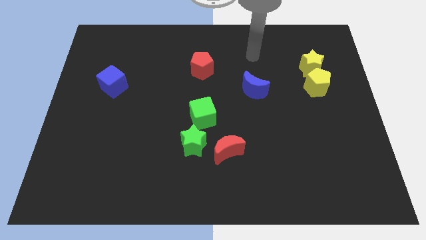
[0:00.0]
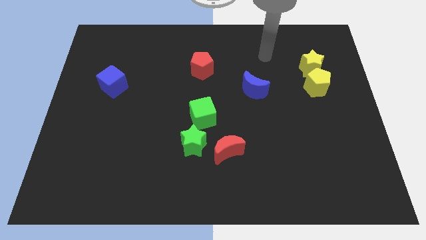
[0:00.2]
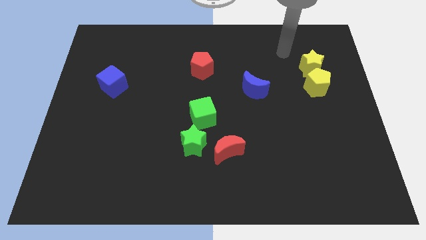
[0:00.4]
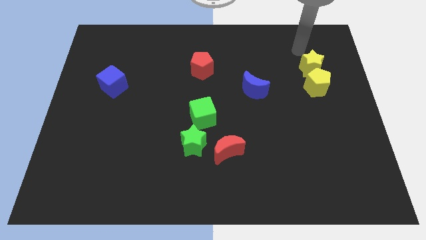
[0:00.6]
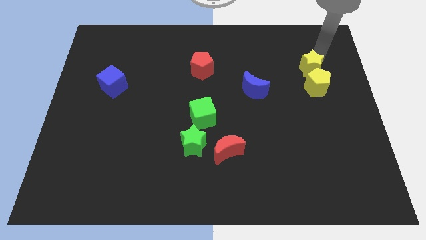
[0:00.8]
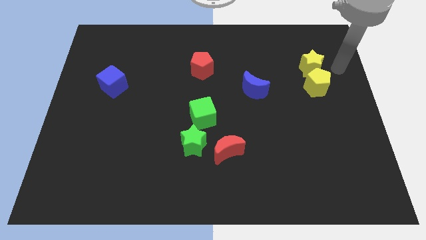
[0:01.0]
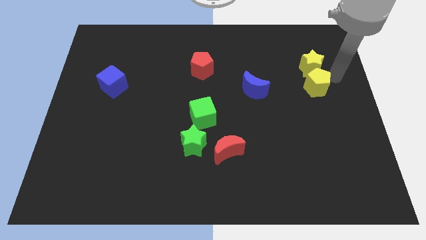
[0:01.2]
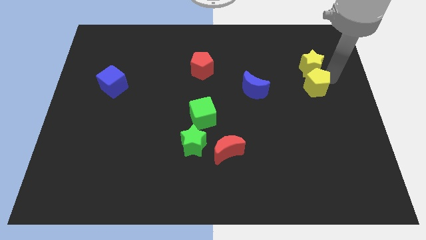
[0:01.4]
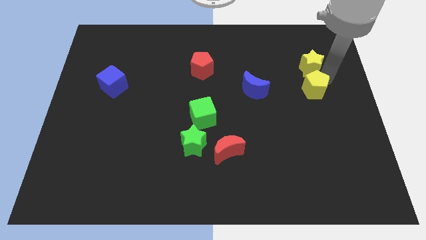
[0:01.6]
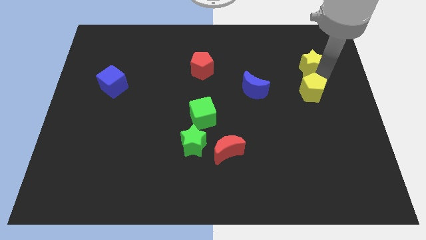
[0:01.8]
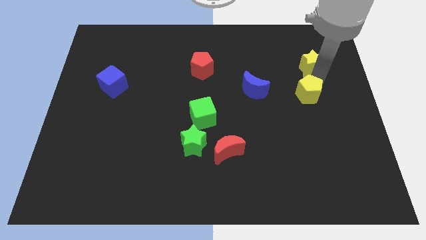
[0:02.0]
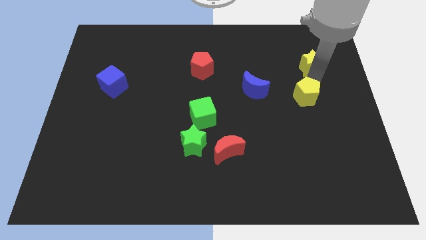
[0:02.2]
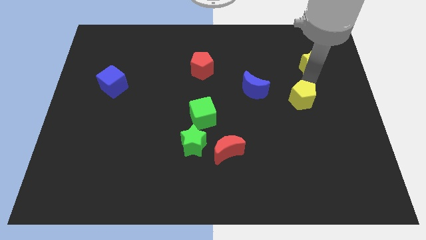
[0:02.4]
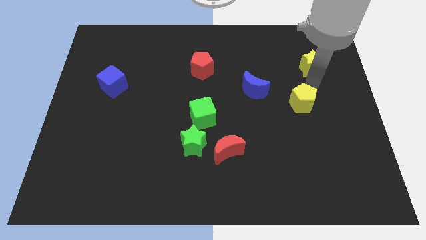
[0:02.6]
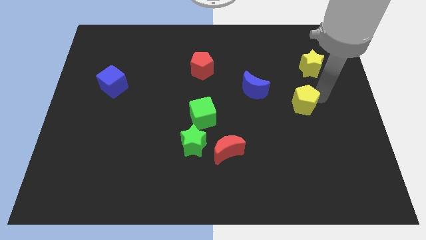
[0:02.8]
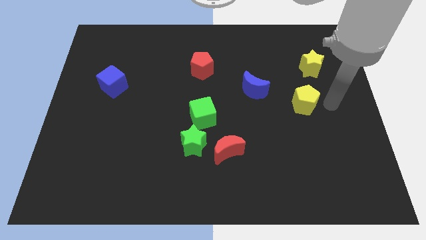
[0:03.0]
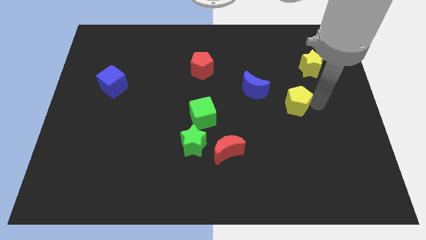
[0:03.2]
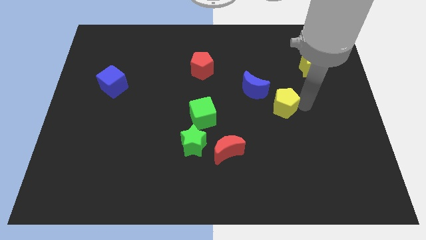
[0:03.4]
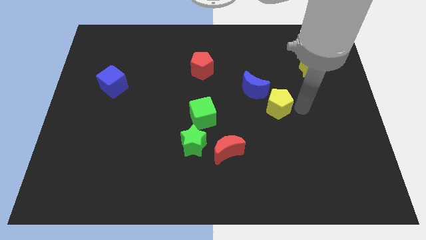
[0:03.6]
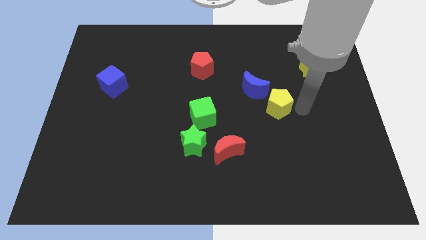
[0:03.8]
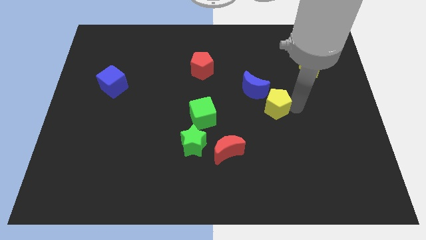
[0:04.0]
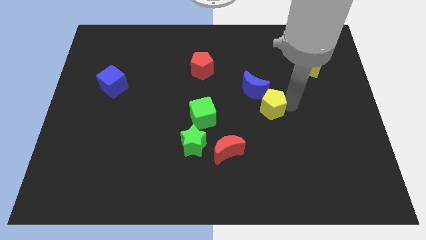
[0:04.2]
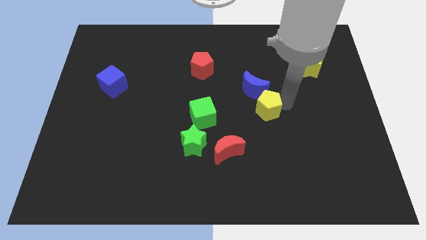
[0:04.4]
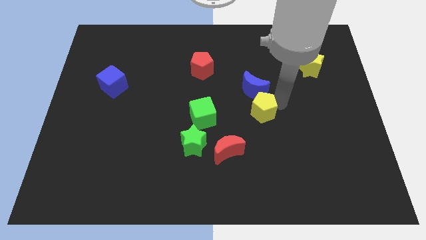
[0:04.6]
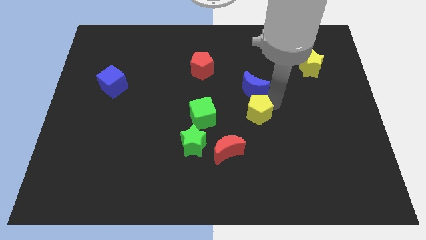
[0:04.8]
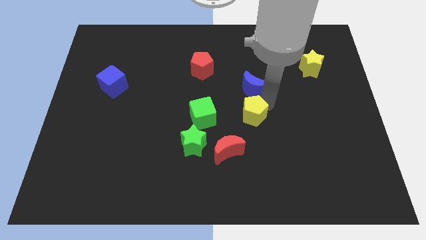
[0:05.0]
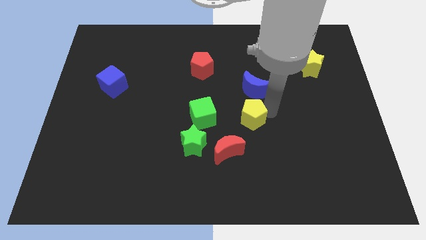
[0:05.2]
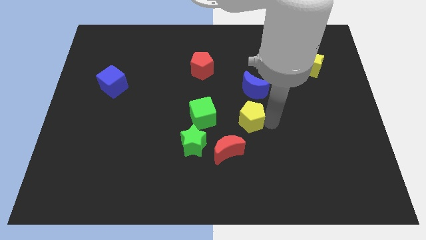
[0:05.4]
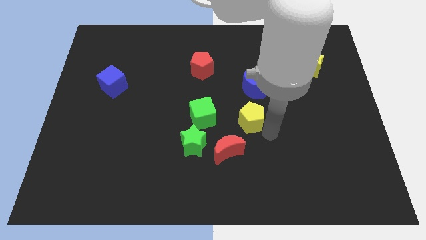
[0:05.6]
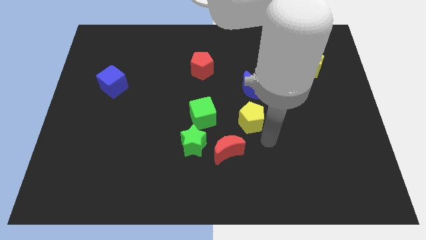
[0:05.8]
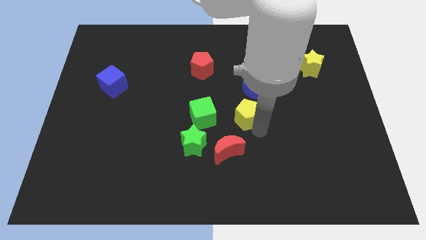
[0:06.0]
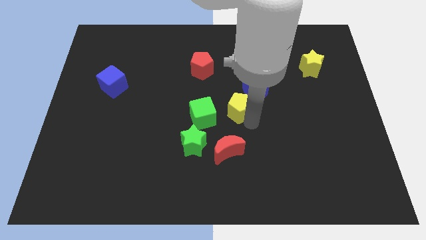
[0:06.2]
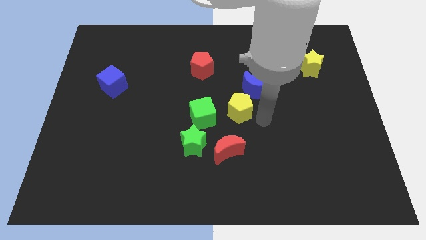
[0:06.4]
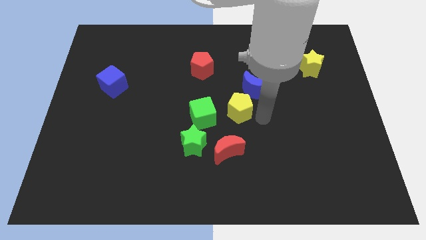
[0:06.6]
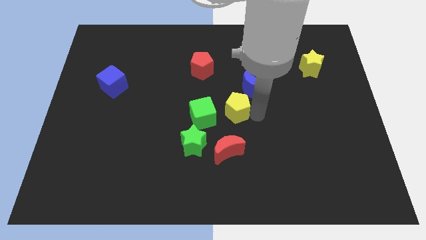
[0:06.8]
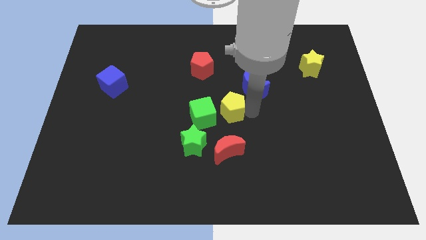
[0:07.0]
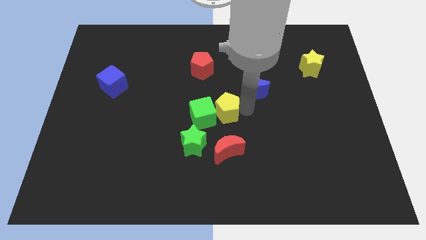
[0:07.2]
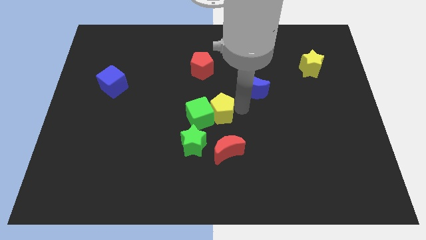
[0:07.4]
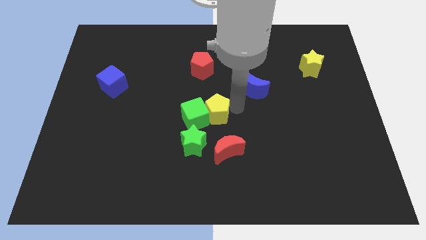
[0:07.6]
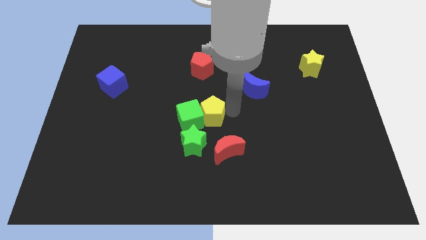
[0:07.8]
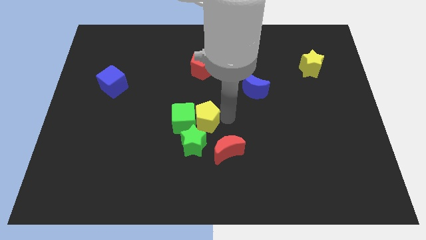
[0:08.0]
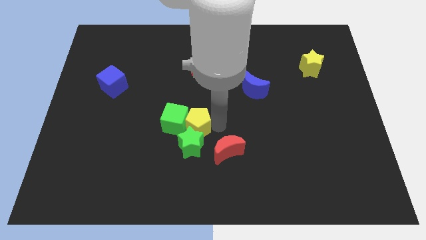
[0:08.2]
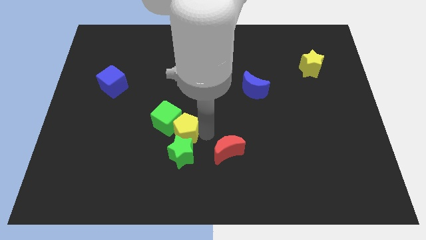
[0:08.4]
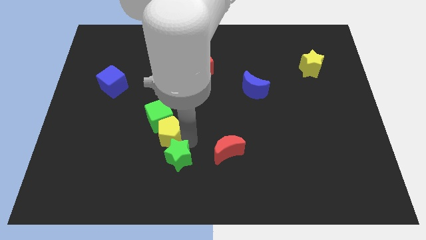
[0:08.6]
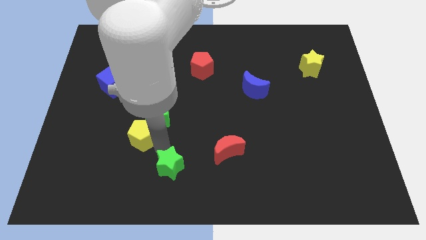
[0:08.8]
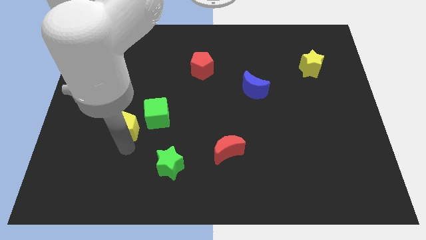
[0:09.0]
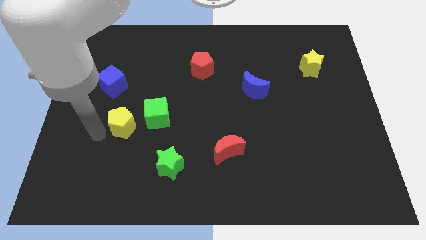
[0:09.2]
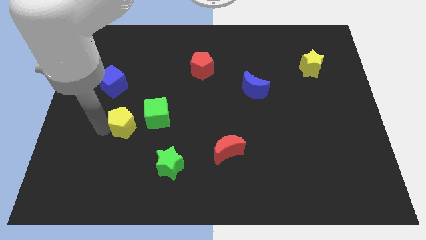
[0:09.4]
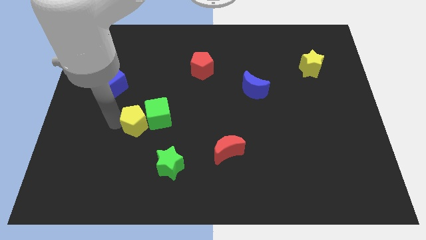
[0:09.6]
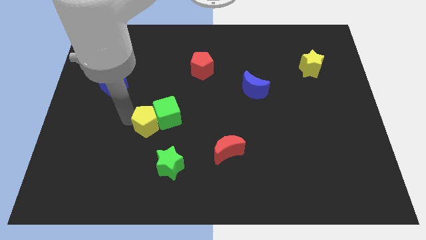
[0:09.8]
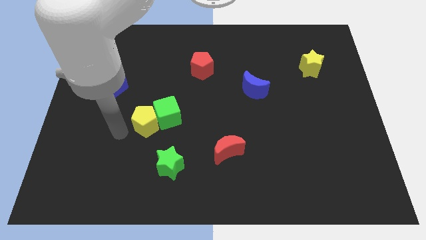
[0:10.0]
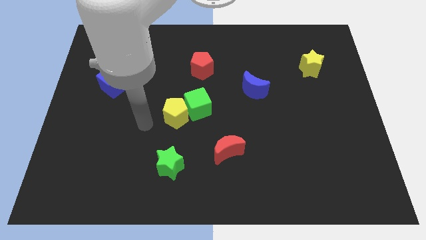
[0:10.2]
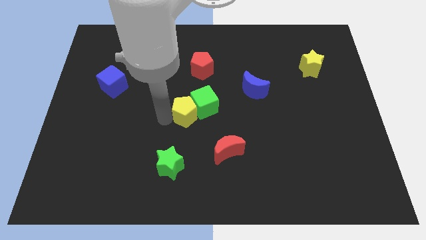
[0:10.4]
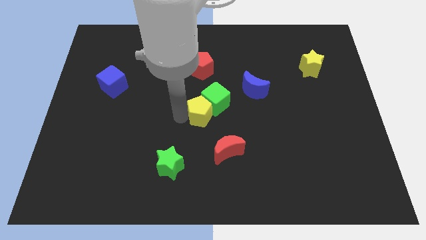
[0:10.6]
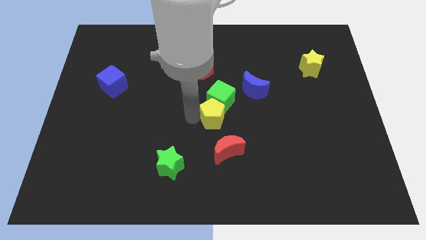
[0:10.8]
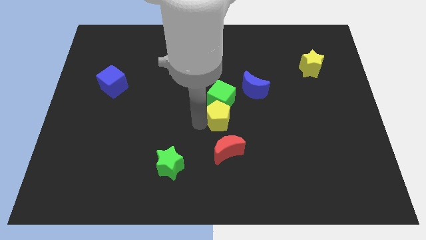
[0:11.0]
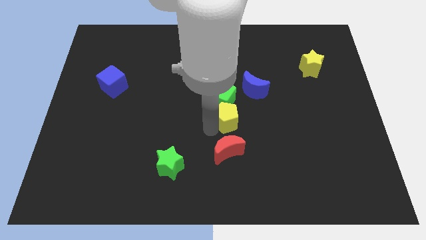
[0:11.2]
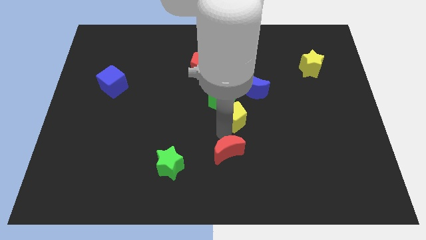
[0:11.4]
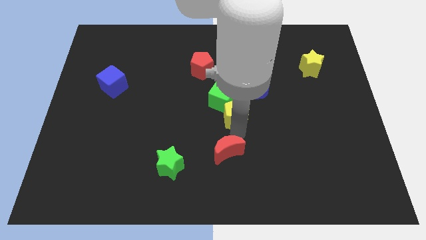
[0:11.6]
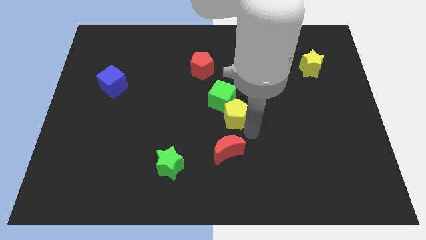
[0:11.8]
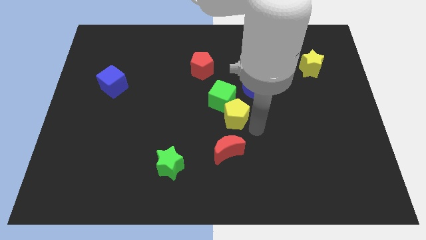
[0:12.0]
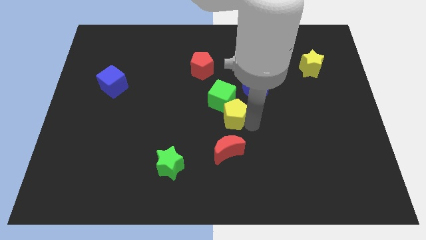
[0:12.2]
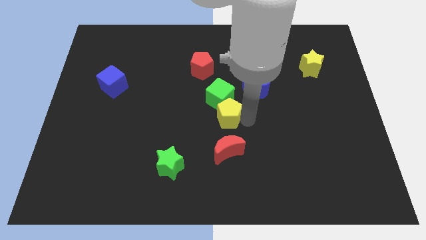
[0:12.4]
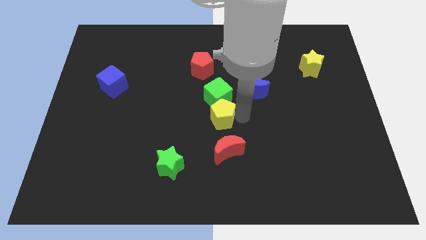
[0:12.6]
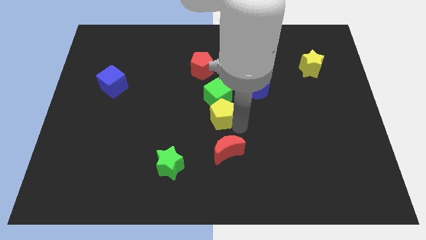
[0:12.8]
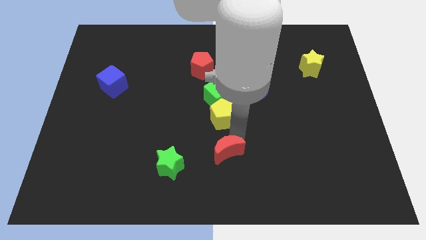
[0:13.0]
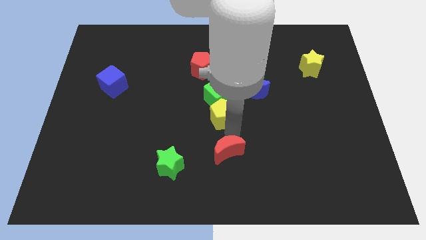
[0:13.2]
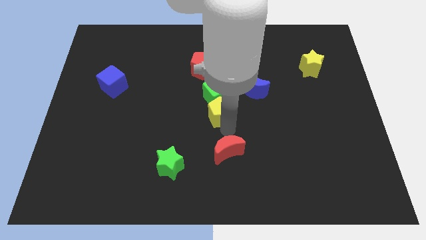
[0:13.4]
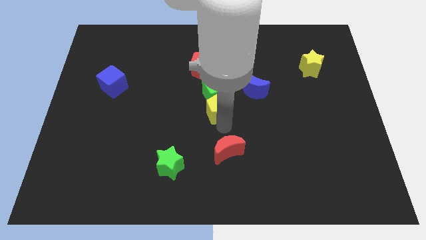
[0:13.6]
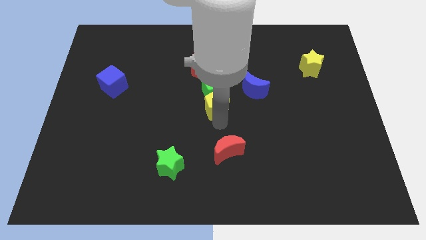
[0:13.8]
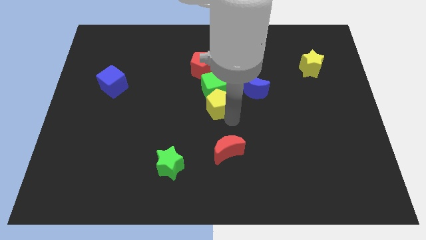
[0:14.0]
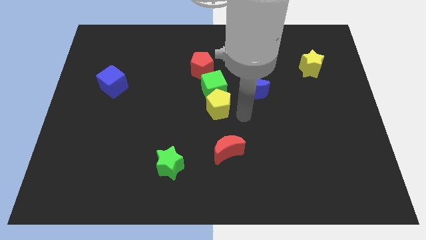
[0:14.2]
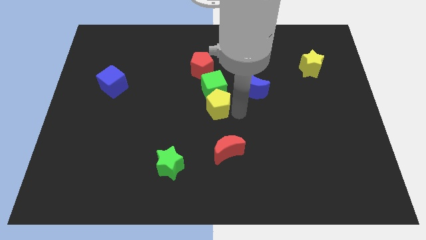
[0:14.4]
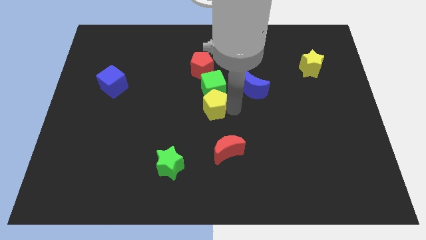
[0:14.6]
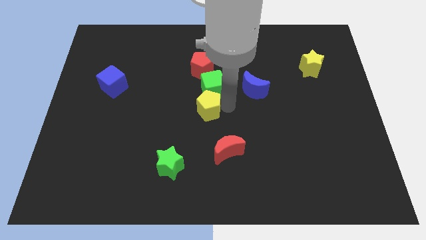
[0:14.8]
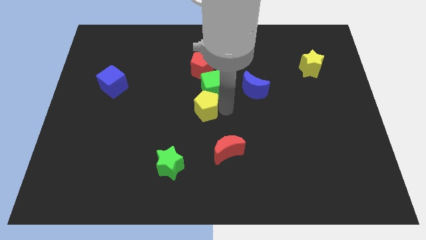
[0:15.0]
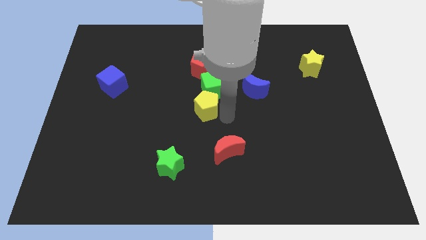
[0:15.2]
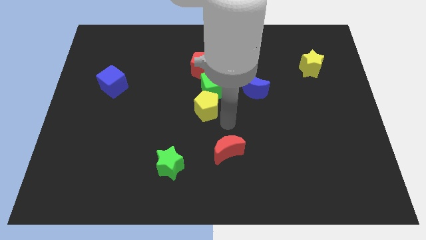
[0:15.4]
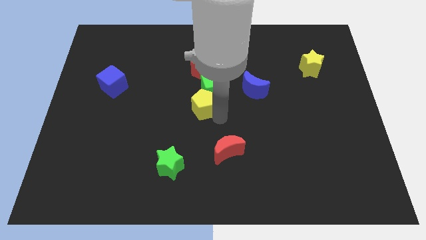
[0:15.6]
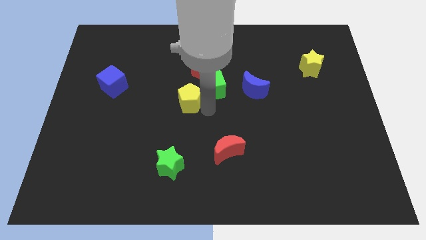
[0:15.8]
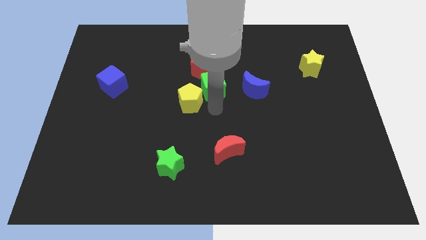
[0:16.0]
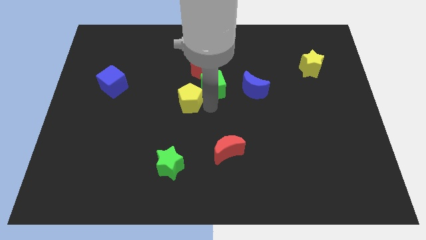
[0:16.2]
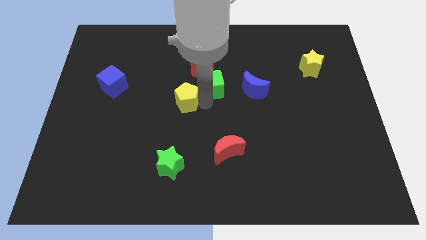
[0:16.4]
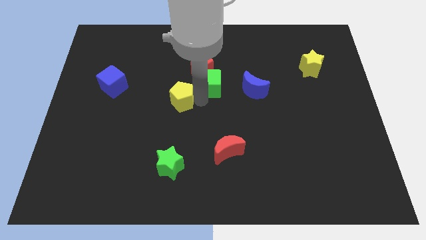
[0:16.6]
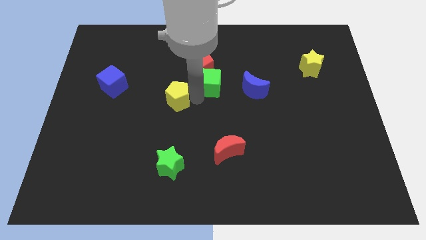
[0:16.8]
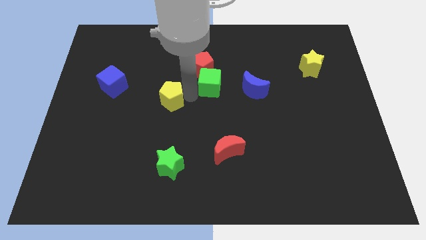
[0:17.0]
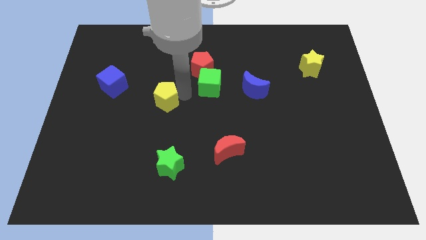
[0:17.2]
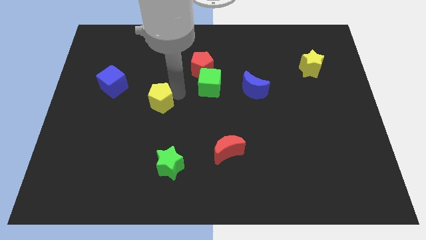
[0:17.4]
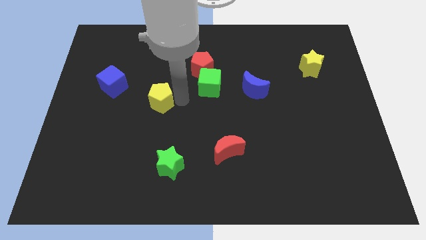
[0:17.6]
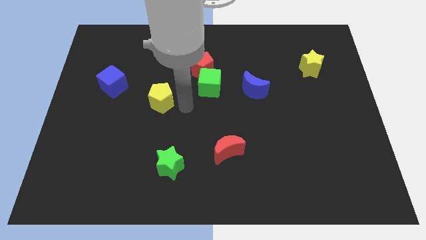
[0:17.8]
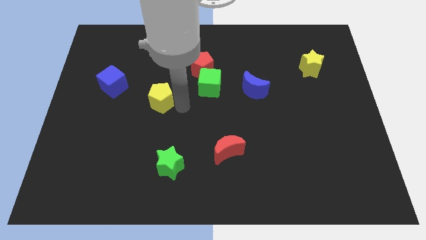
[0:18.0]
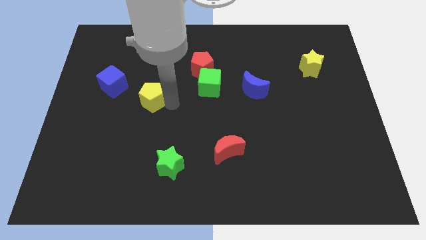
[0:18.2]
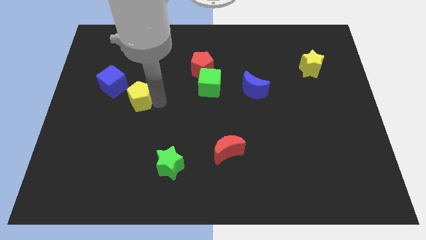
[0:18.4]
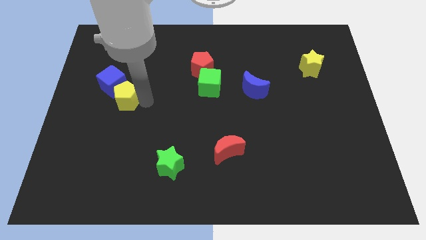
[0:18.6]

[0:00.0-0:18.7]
move the yellow pentagon towards the blue cube
